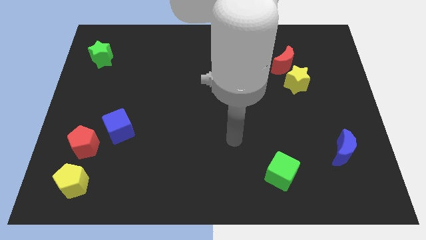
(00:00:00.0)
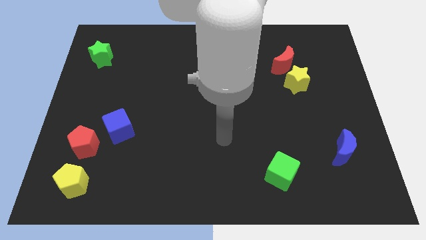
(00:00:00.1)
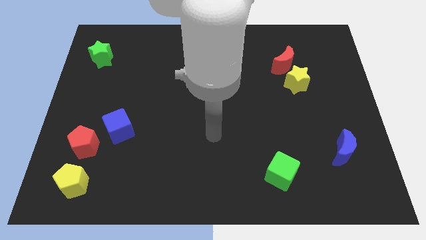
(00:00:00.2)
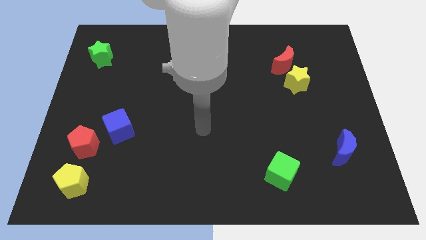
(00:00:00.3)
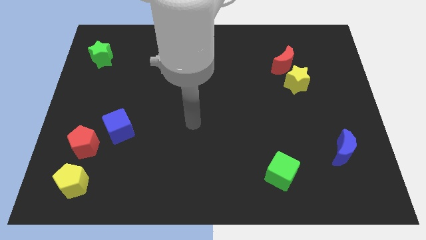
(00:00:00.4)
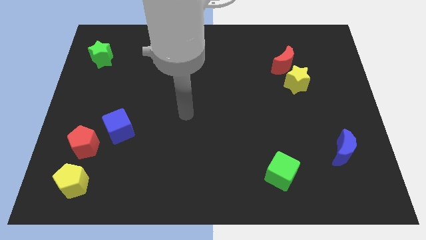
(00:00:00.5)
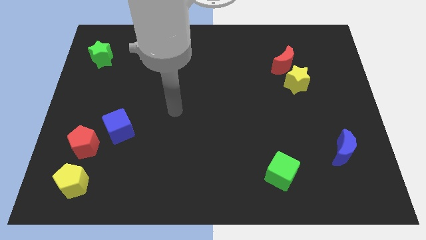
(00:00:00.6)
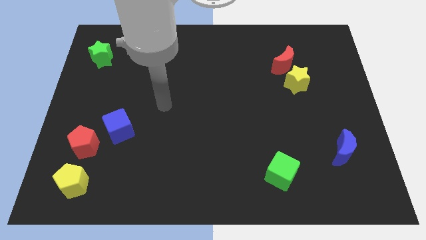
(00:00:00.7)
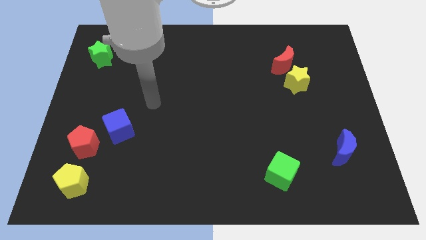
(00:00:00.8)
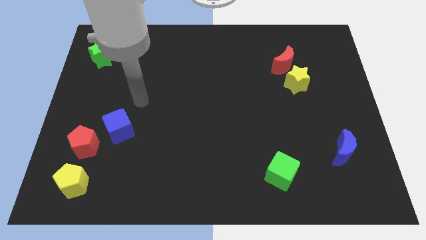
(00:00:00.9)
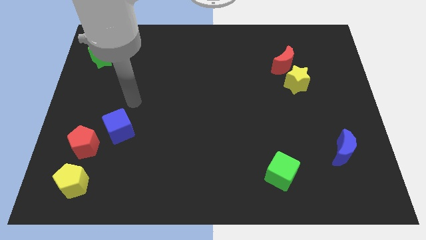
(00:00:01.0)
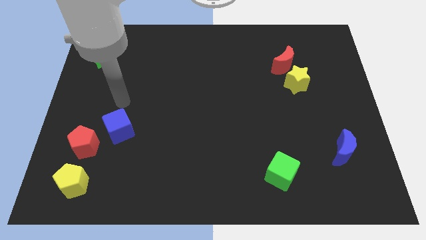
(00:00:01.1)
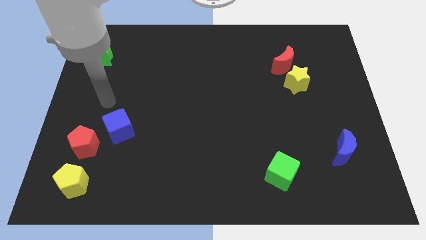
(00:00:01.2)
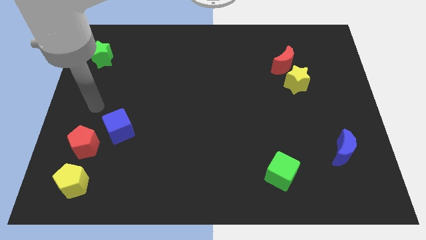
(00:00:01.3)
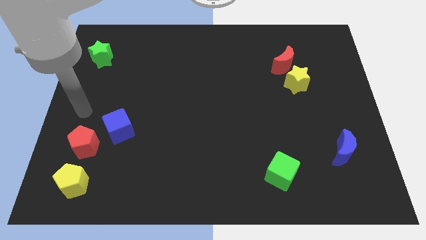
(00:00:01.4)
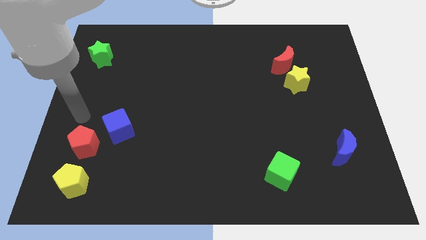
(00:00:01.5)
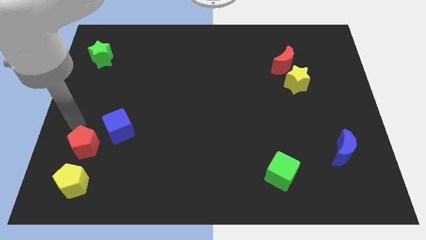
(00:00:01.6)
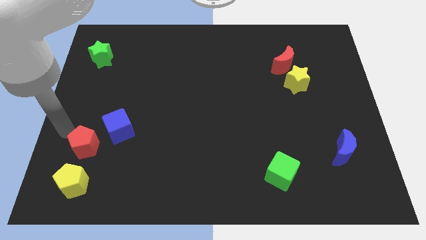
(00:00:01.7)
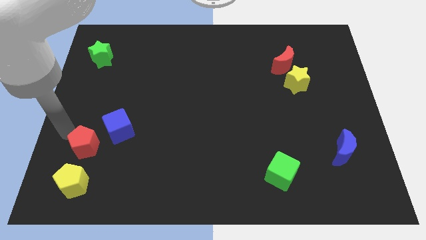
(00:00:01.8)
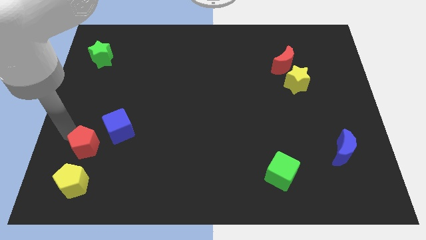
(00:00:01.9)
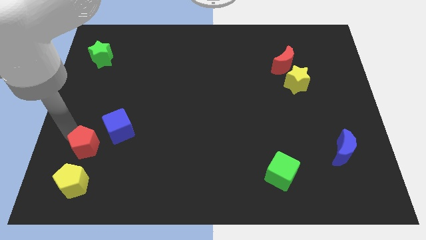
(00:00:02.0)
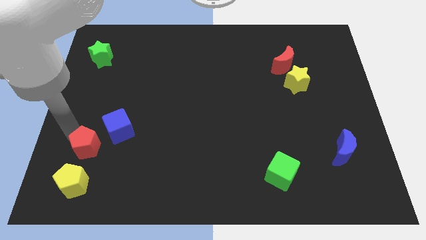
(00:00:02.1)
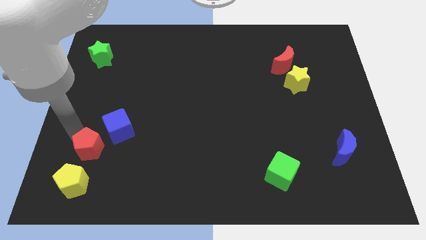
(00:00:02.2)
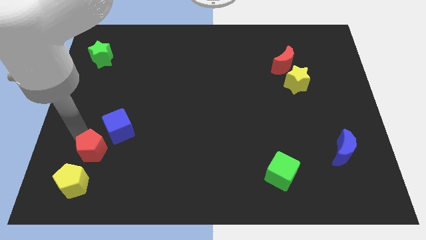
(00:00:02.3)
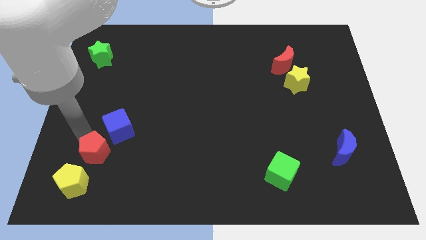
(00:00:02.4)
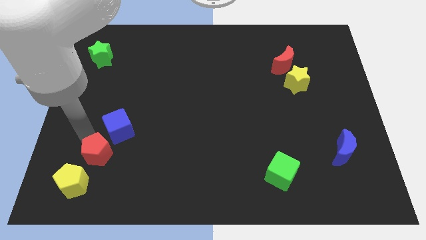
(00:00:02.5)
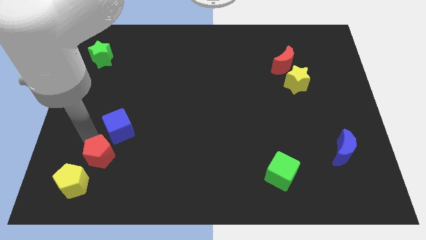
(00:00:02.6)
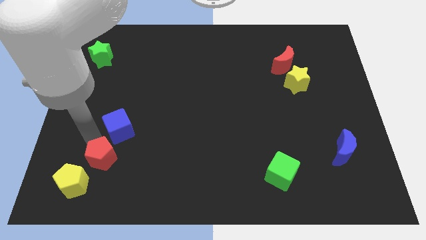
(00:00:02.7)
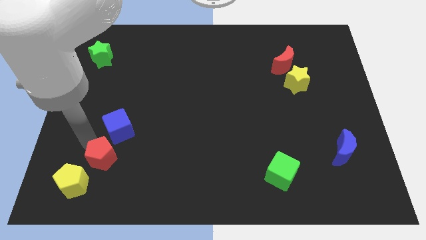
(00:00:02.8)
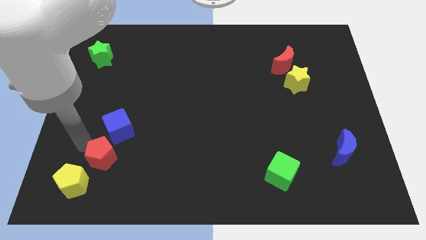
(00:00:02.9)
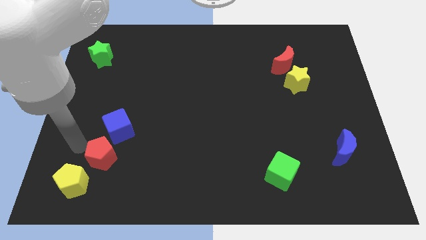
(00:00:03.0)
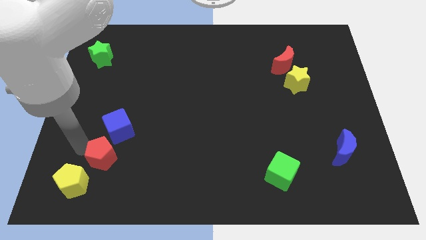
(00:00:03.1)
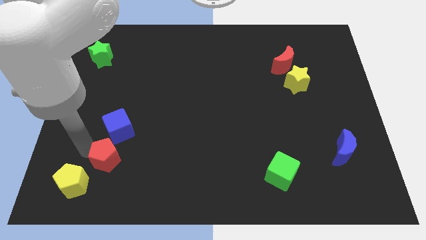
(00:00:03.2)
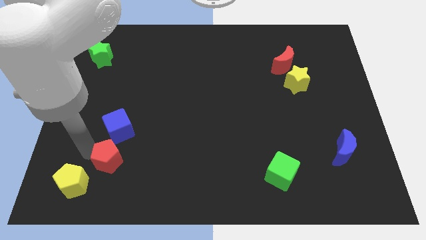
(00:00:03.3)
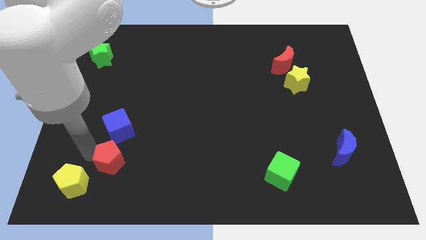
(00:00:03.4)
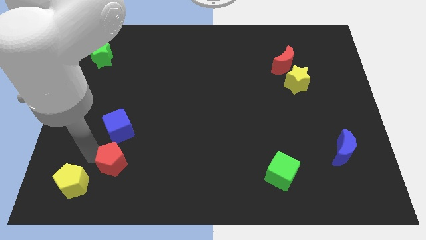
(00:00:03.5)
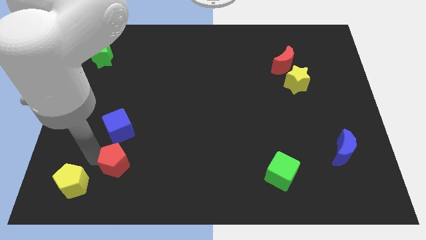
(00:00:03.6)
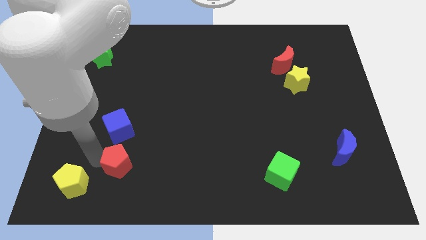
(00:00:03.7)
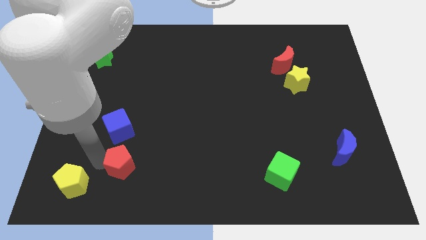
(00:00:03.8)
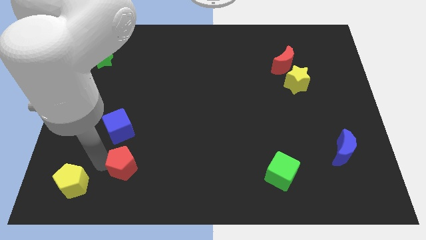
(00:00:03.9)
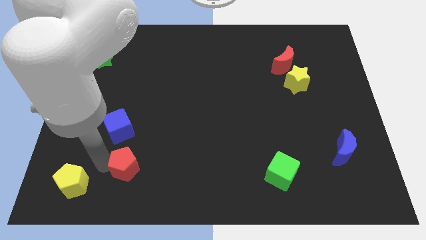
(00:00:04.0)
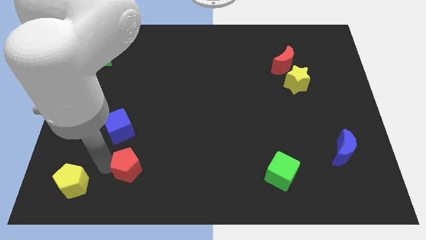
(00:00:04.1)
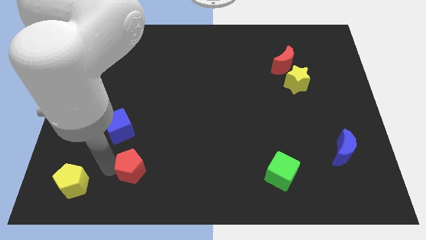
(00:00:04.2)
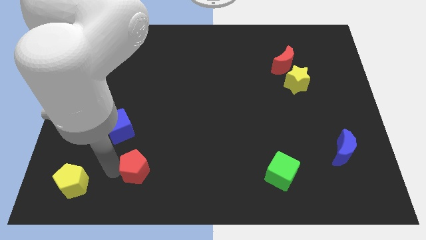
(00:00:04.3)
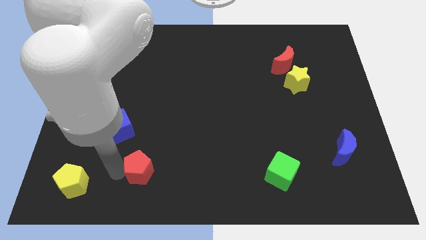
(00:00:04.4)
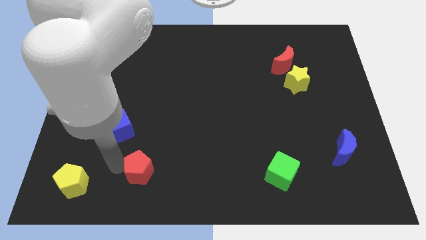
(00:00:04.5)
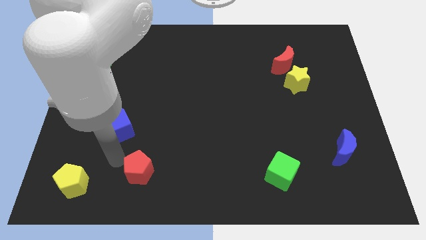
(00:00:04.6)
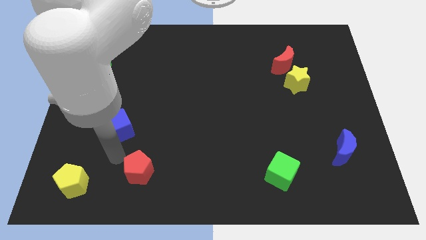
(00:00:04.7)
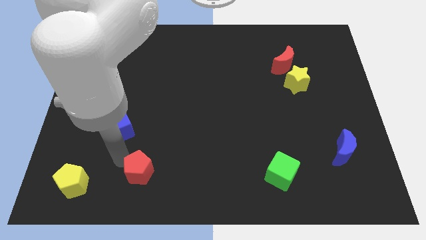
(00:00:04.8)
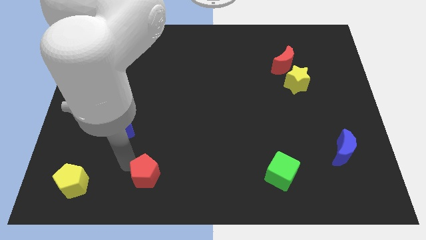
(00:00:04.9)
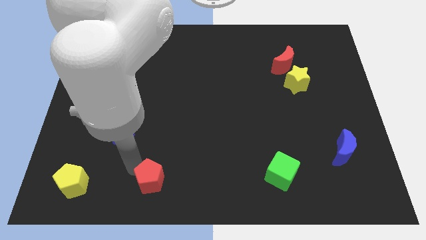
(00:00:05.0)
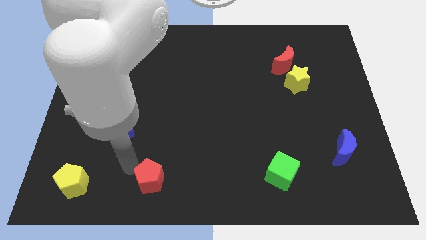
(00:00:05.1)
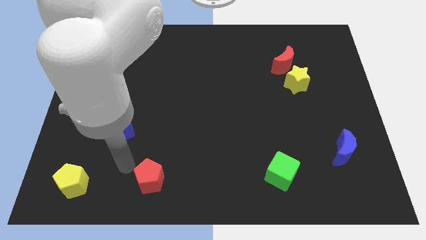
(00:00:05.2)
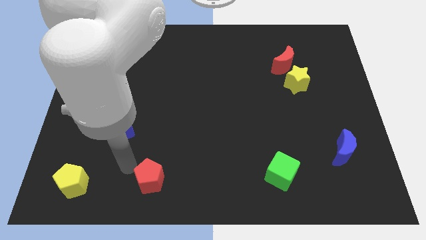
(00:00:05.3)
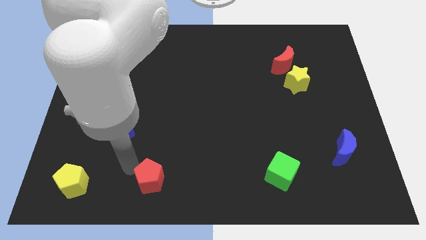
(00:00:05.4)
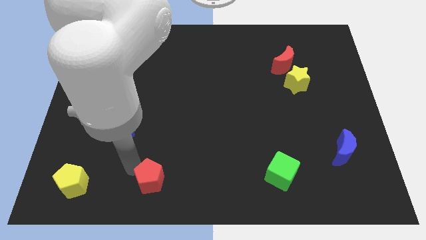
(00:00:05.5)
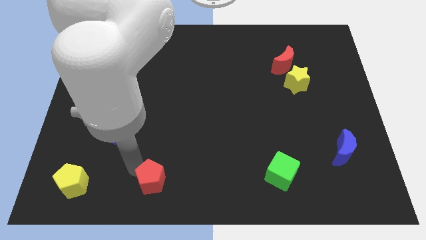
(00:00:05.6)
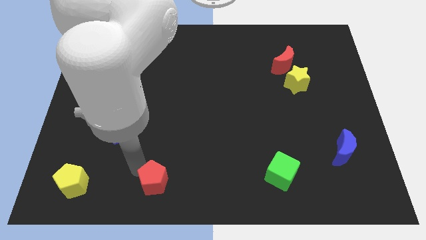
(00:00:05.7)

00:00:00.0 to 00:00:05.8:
move the red pentagon to the bottom

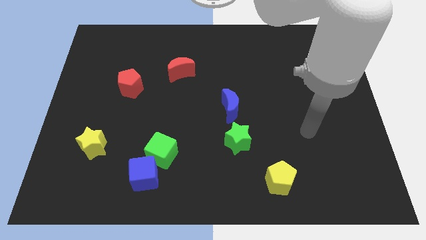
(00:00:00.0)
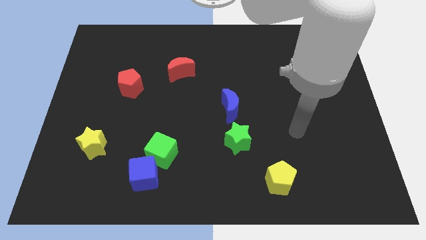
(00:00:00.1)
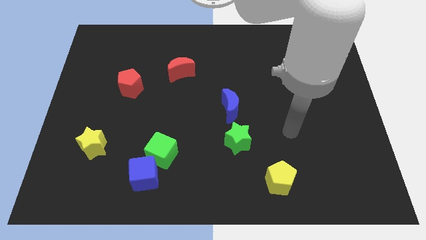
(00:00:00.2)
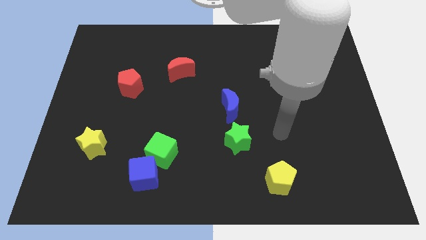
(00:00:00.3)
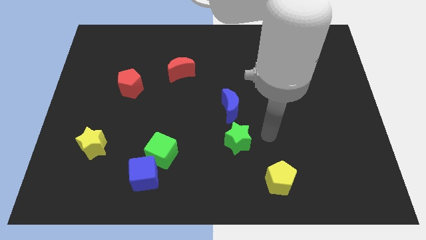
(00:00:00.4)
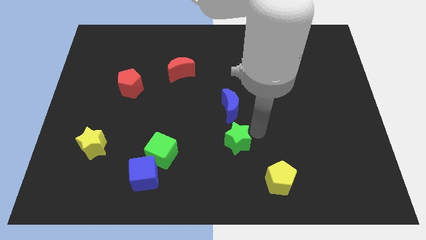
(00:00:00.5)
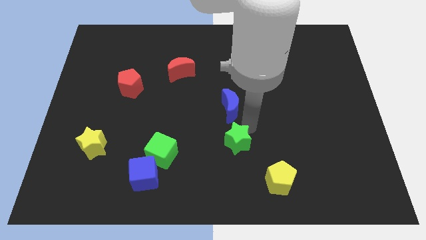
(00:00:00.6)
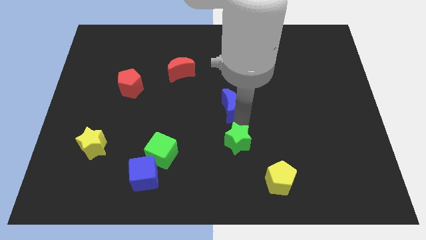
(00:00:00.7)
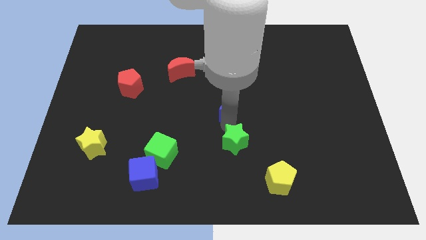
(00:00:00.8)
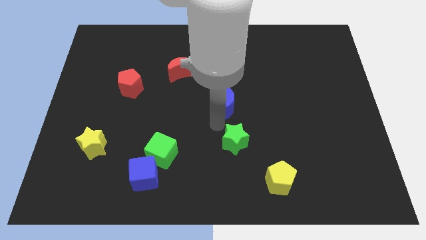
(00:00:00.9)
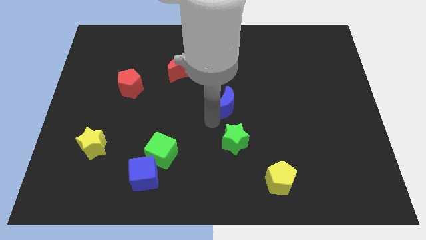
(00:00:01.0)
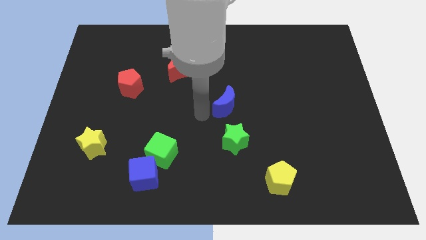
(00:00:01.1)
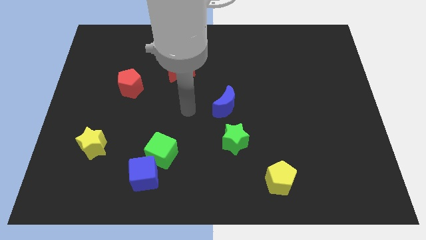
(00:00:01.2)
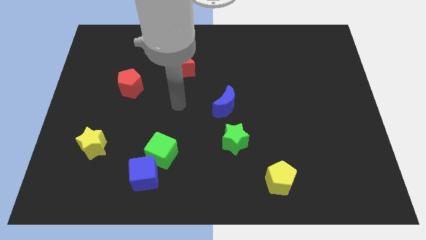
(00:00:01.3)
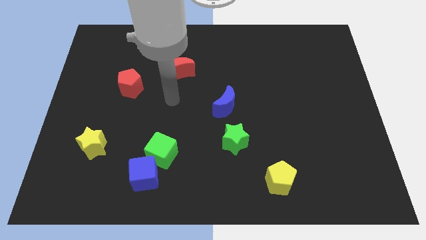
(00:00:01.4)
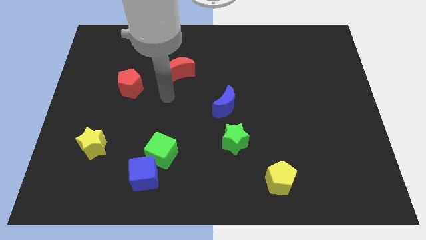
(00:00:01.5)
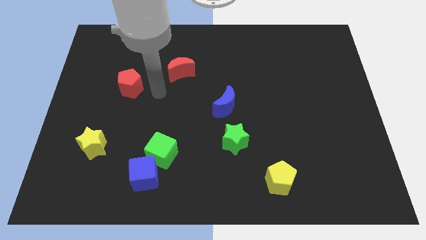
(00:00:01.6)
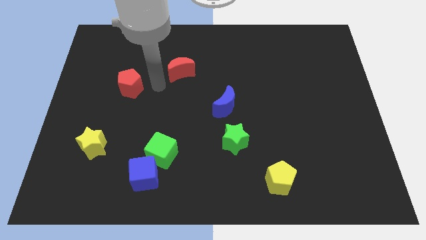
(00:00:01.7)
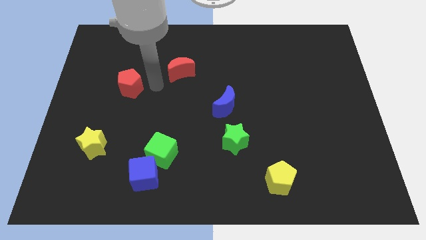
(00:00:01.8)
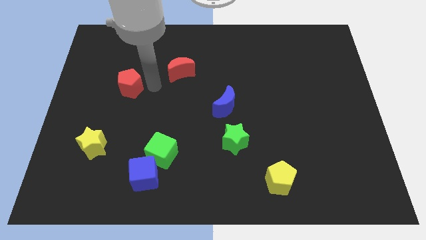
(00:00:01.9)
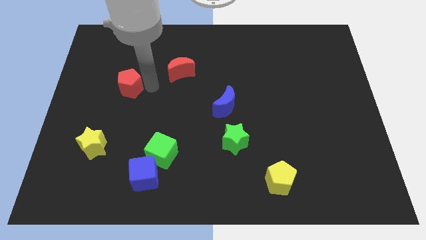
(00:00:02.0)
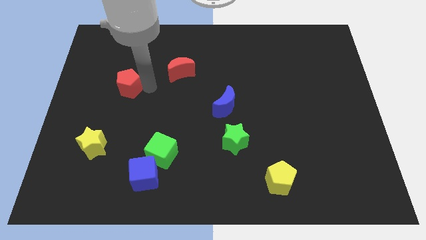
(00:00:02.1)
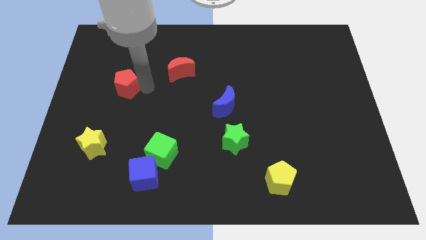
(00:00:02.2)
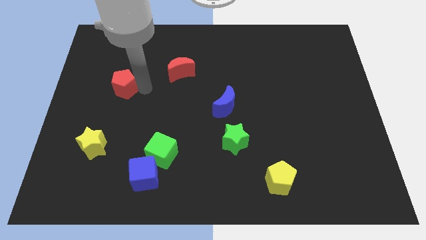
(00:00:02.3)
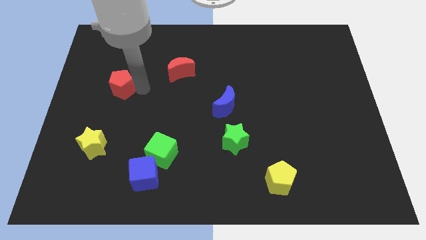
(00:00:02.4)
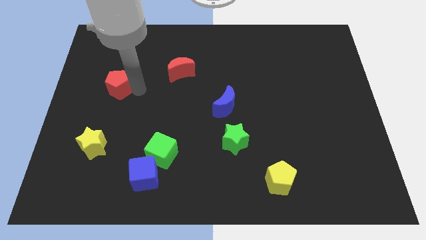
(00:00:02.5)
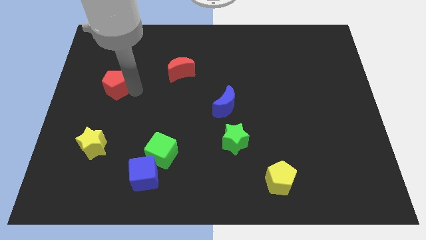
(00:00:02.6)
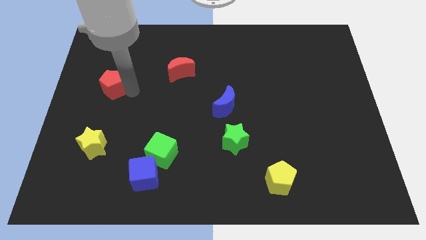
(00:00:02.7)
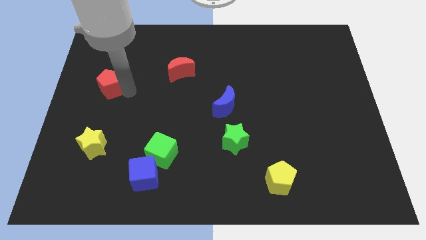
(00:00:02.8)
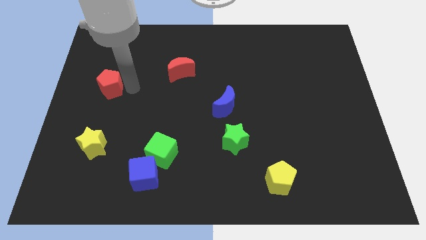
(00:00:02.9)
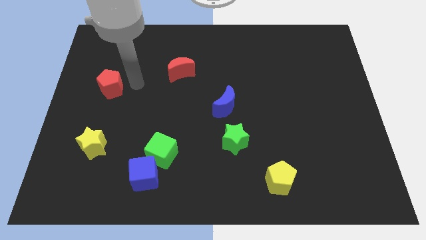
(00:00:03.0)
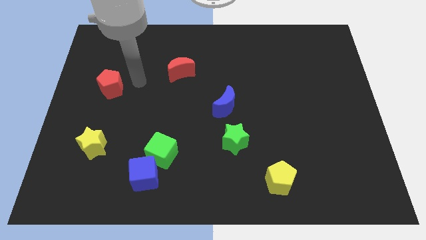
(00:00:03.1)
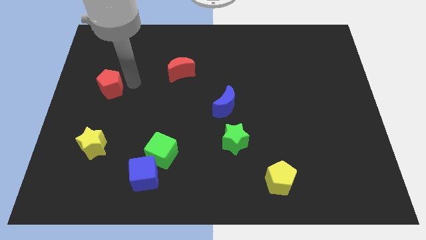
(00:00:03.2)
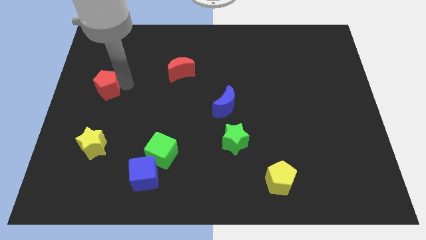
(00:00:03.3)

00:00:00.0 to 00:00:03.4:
push the red pentagon to the left side
